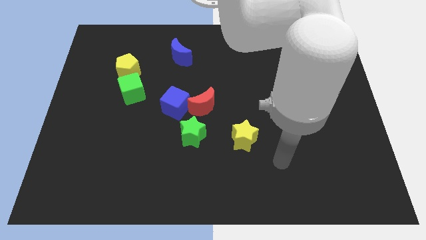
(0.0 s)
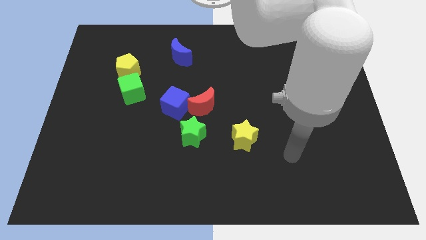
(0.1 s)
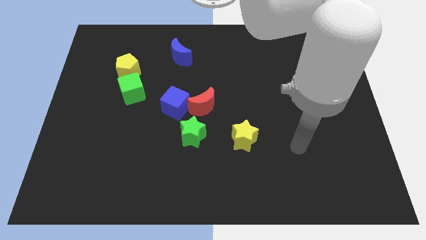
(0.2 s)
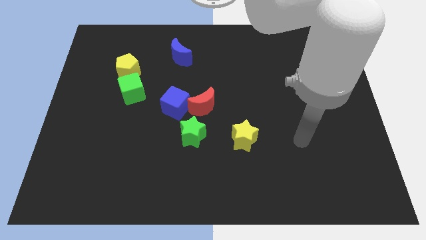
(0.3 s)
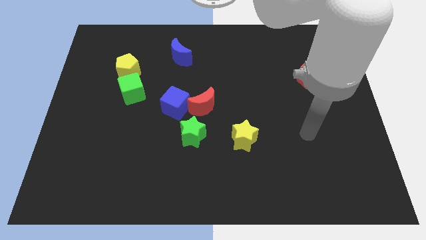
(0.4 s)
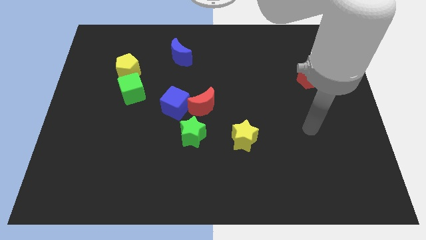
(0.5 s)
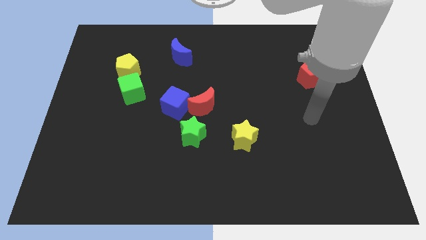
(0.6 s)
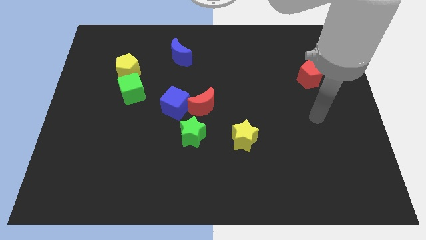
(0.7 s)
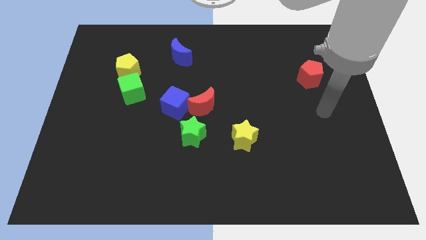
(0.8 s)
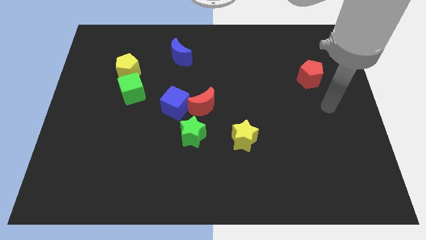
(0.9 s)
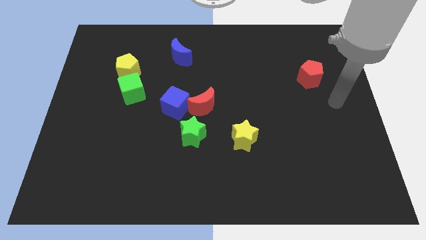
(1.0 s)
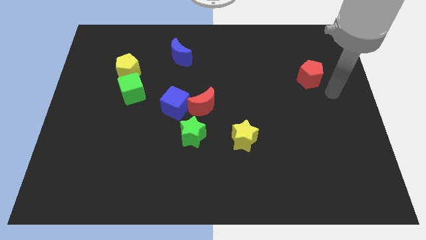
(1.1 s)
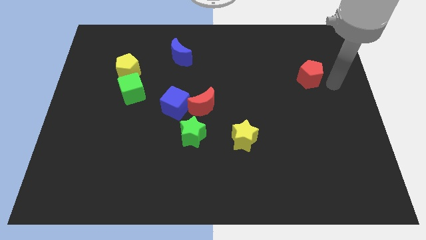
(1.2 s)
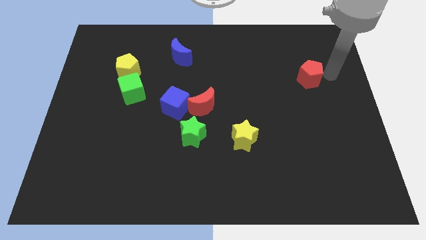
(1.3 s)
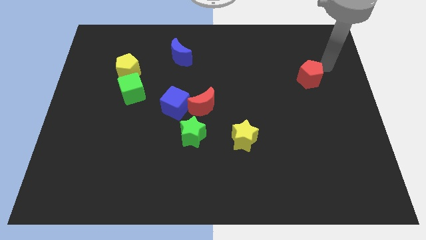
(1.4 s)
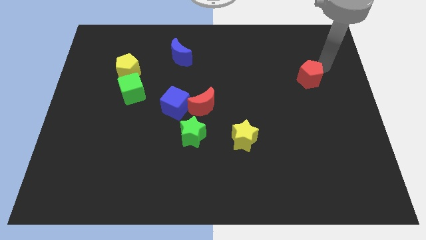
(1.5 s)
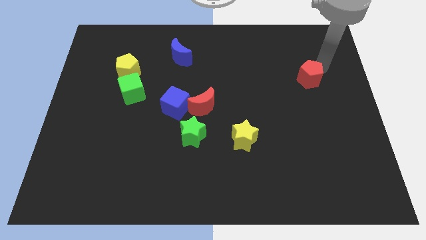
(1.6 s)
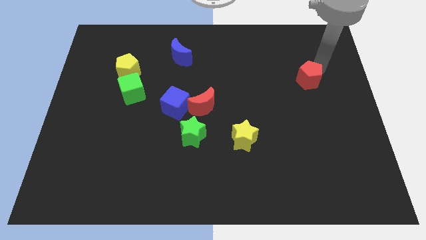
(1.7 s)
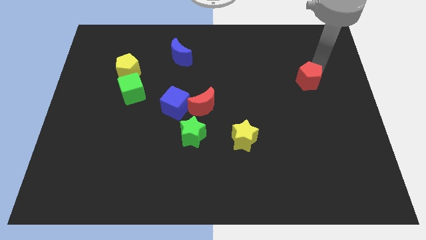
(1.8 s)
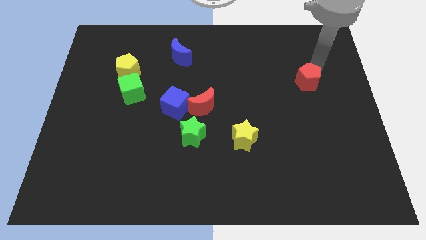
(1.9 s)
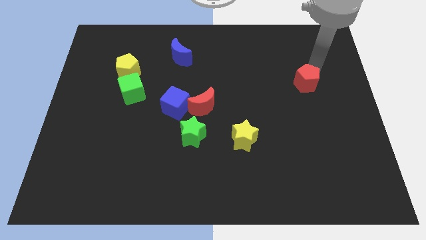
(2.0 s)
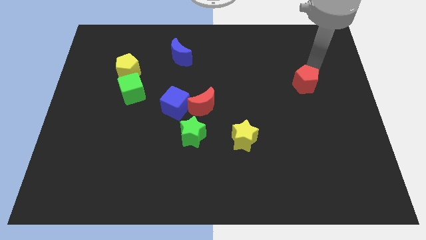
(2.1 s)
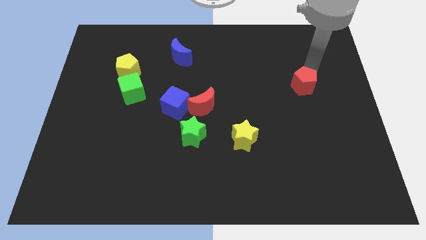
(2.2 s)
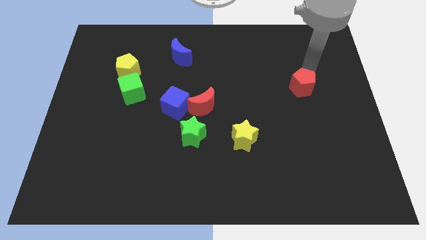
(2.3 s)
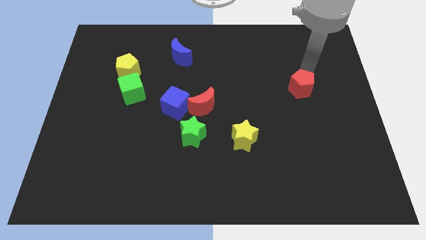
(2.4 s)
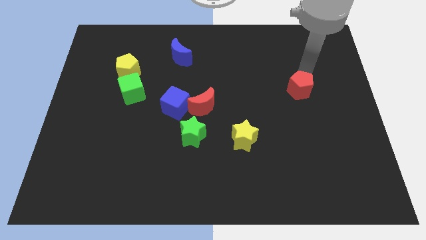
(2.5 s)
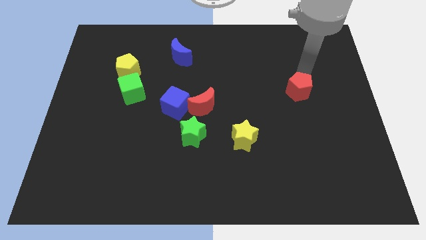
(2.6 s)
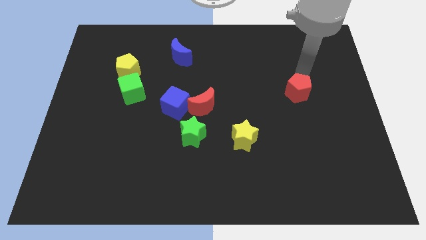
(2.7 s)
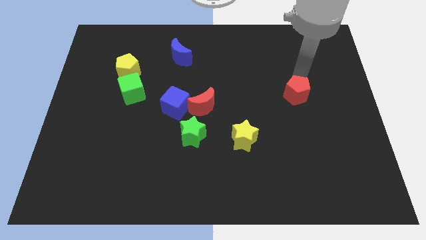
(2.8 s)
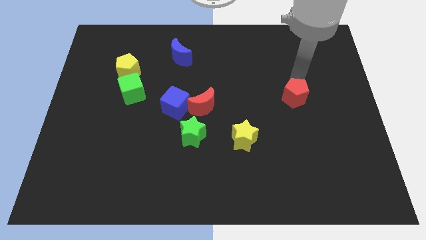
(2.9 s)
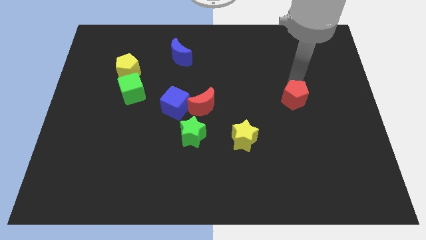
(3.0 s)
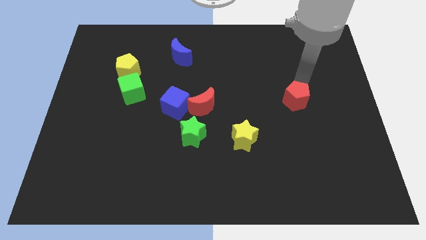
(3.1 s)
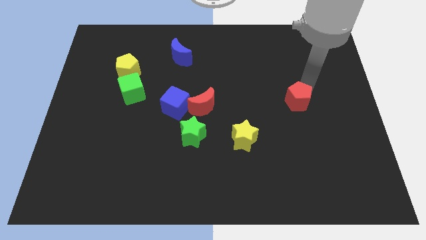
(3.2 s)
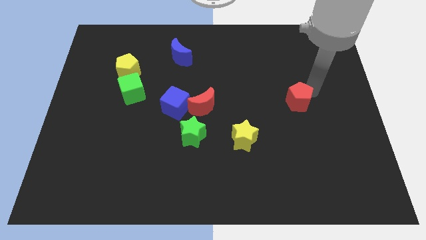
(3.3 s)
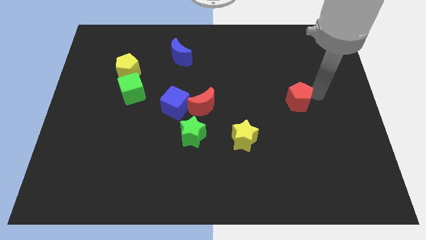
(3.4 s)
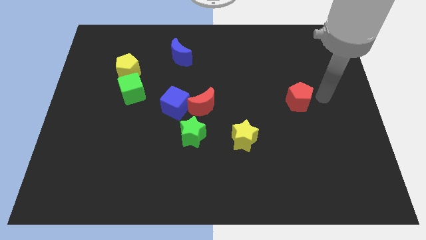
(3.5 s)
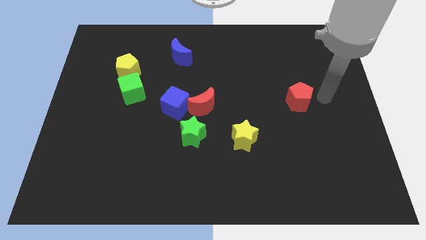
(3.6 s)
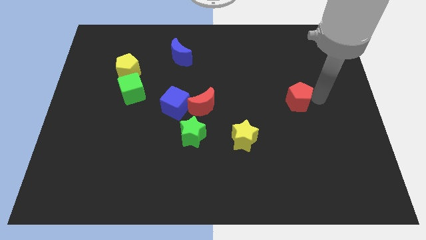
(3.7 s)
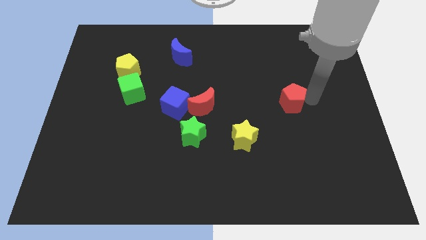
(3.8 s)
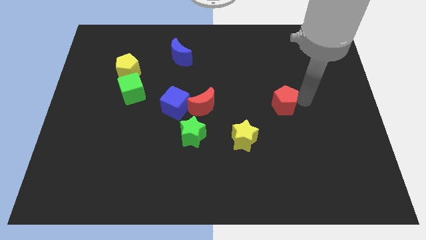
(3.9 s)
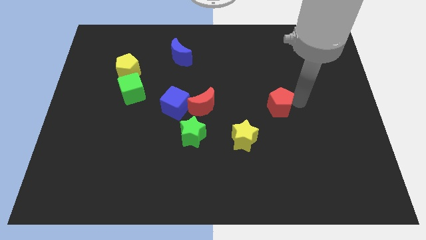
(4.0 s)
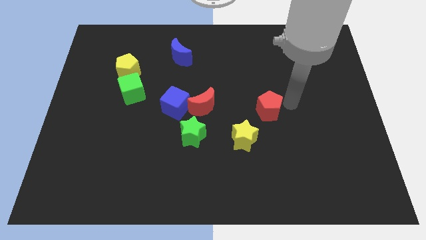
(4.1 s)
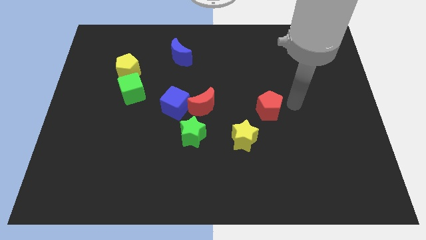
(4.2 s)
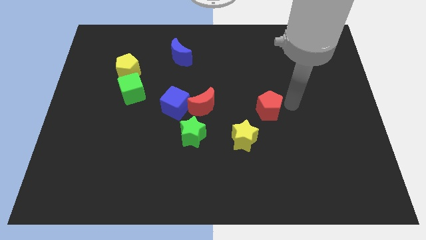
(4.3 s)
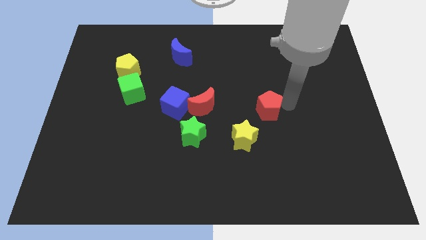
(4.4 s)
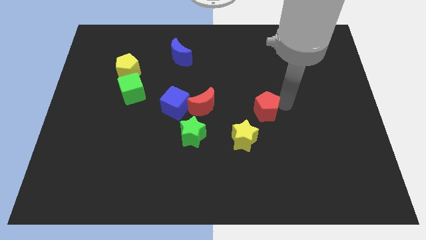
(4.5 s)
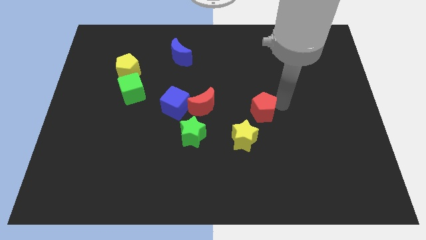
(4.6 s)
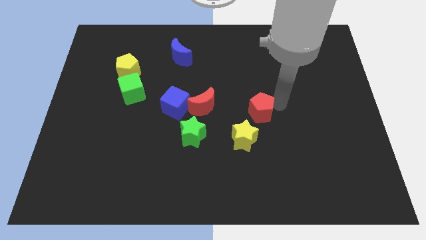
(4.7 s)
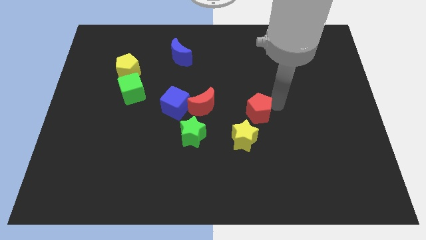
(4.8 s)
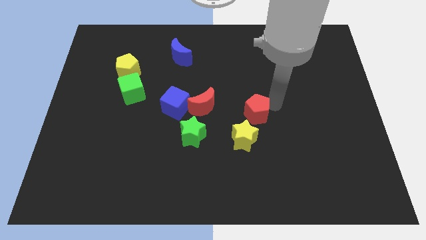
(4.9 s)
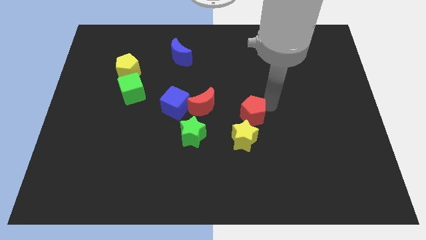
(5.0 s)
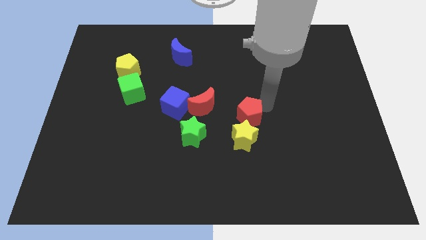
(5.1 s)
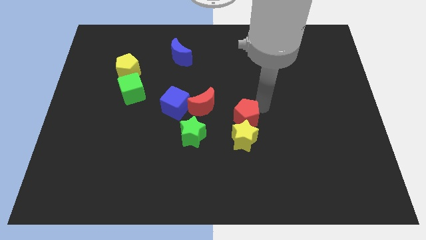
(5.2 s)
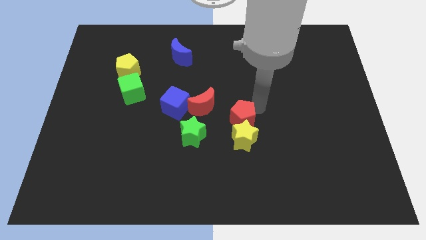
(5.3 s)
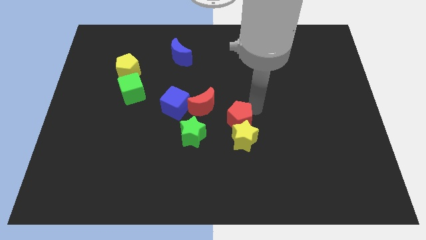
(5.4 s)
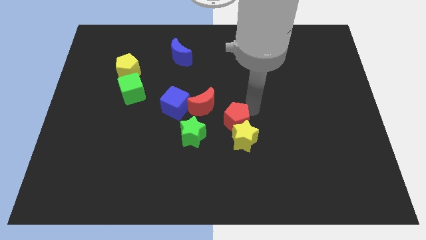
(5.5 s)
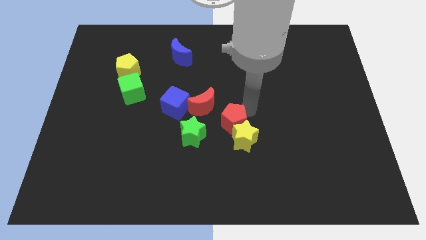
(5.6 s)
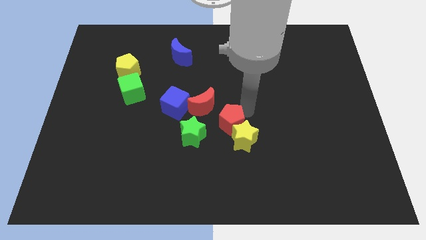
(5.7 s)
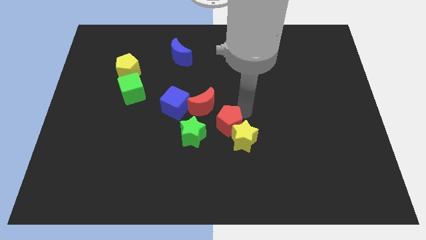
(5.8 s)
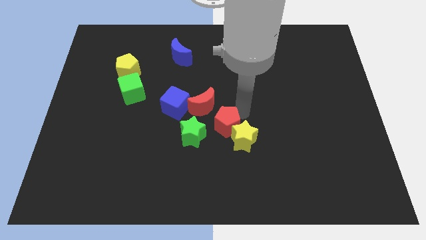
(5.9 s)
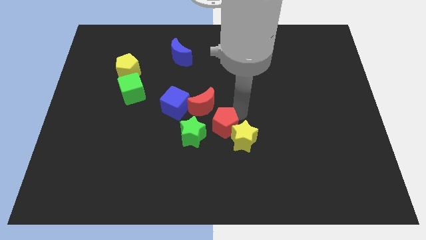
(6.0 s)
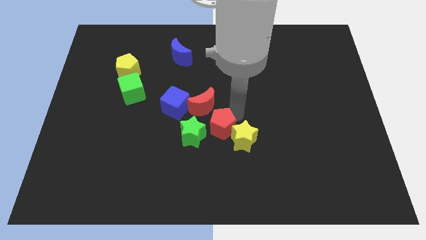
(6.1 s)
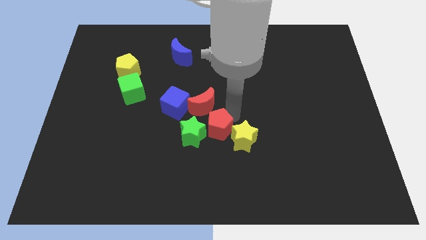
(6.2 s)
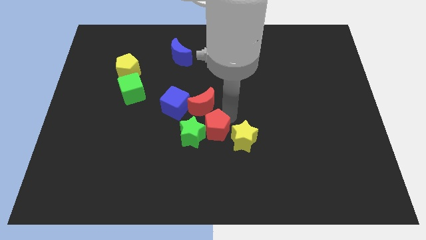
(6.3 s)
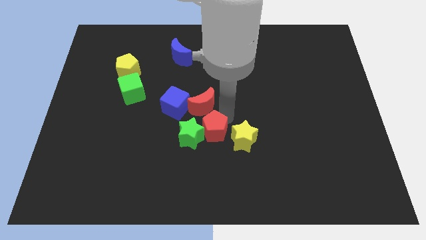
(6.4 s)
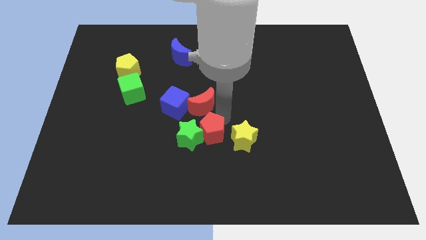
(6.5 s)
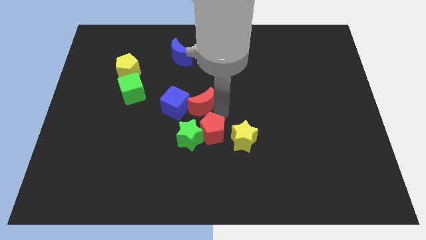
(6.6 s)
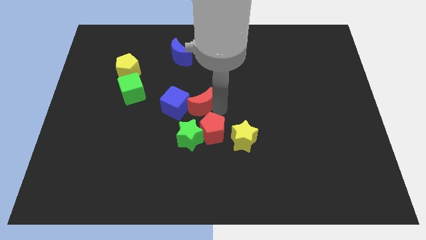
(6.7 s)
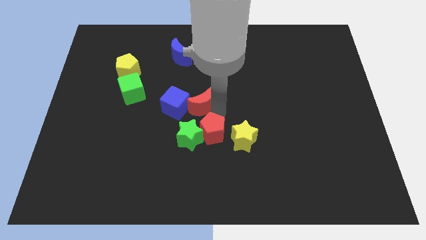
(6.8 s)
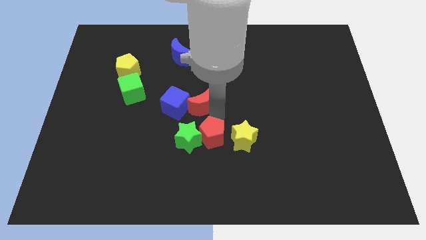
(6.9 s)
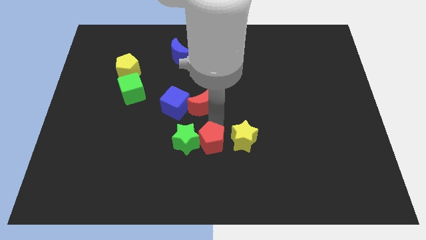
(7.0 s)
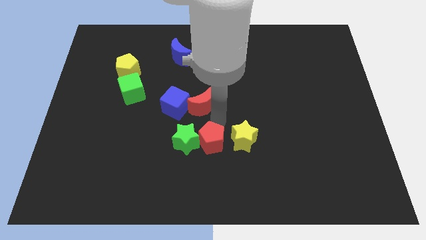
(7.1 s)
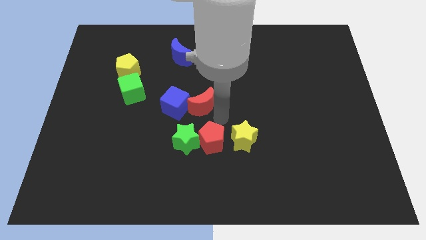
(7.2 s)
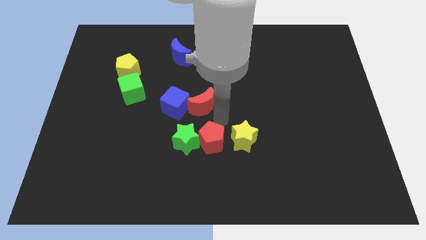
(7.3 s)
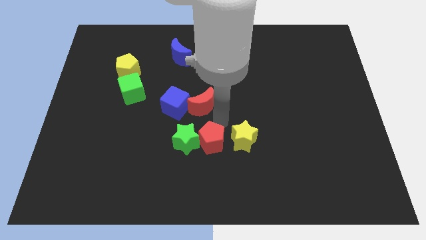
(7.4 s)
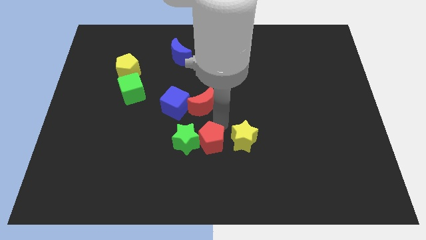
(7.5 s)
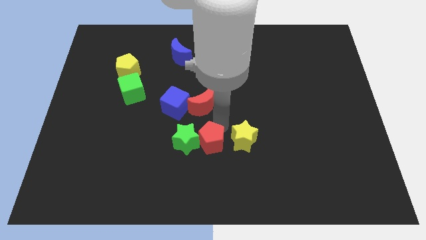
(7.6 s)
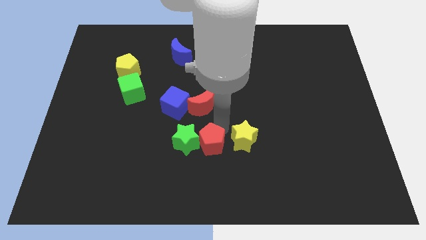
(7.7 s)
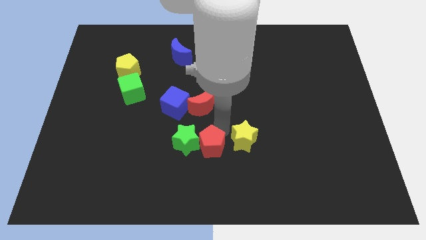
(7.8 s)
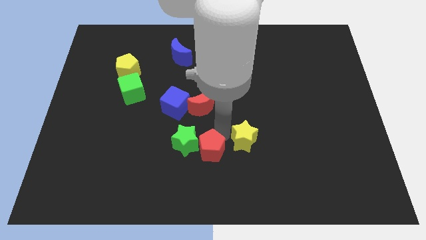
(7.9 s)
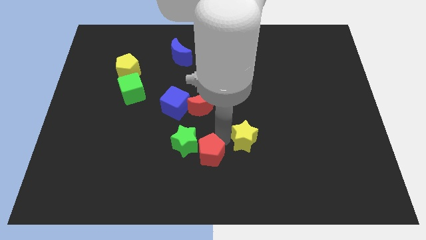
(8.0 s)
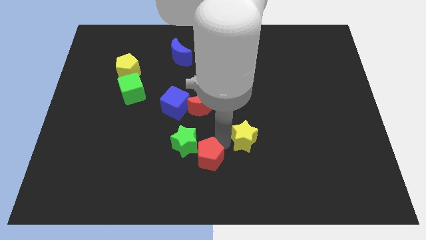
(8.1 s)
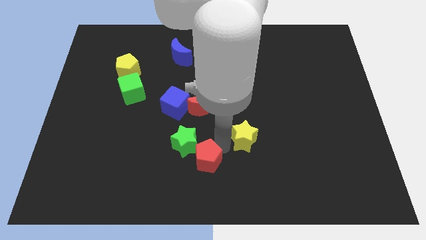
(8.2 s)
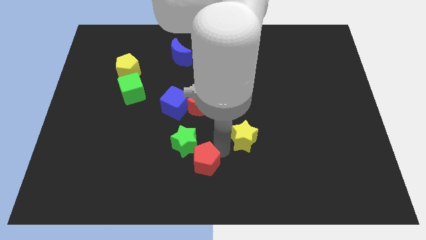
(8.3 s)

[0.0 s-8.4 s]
move the red pentagon to the bottom of the green star
